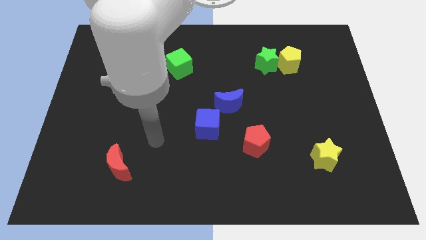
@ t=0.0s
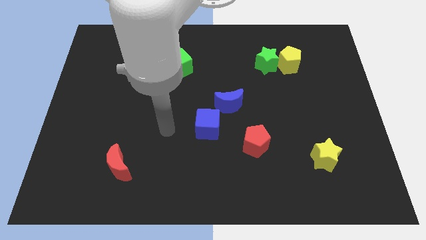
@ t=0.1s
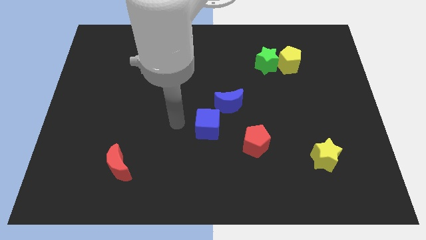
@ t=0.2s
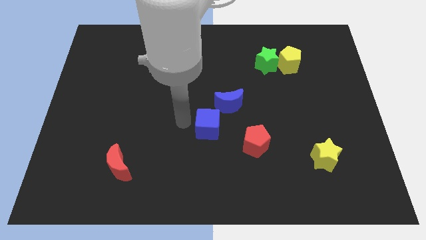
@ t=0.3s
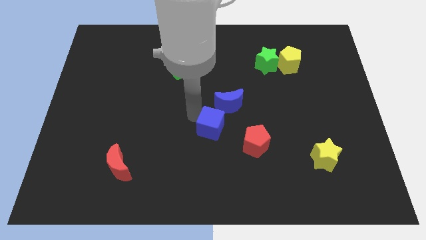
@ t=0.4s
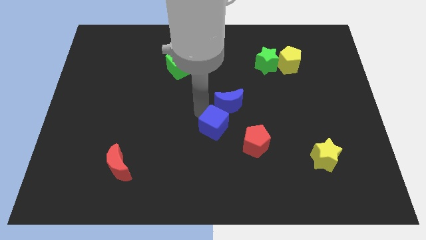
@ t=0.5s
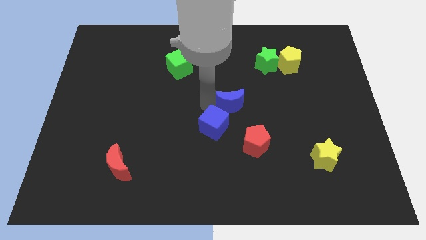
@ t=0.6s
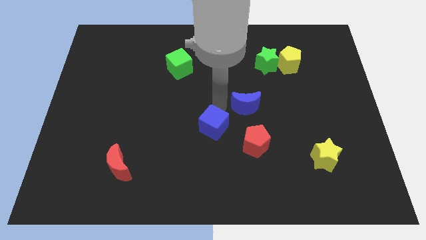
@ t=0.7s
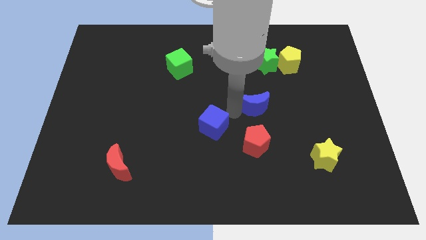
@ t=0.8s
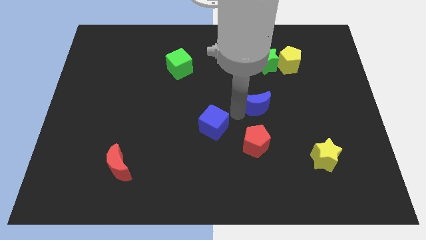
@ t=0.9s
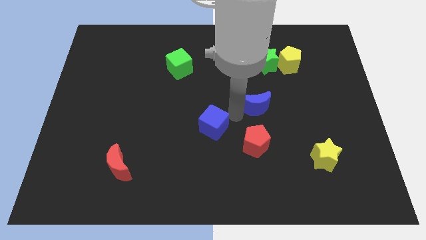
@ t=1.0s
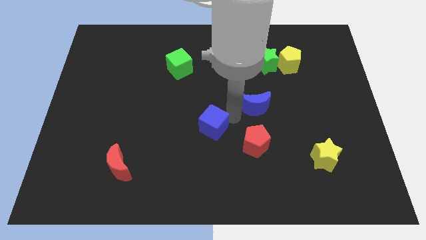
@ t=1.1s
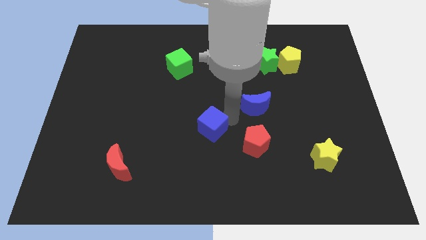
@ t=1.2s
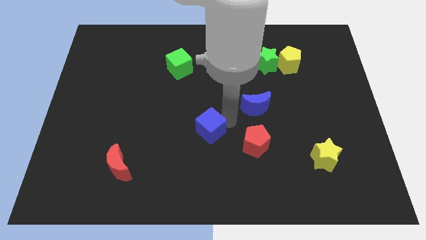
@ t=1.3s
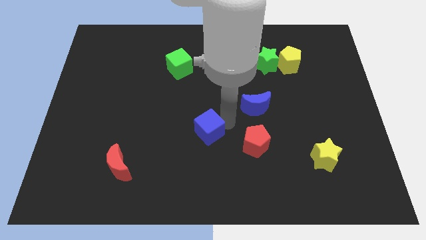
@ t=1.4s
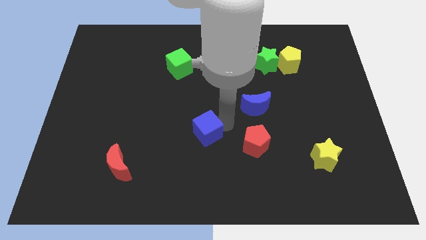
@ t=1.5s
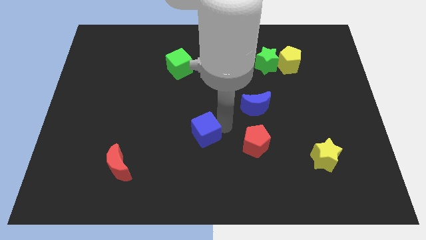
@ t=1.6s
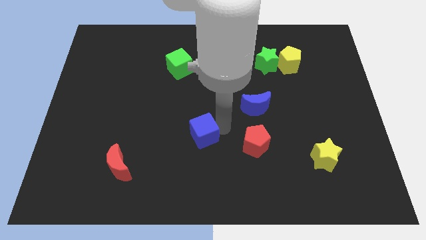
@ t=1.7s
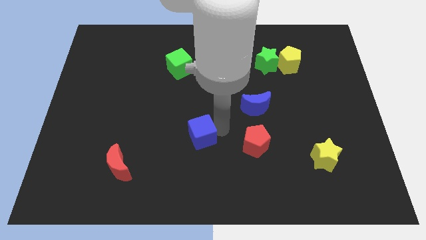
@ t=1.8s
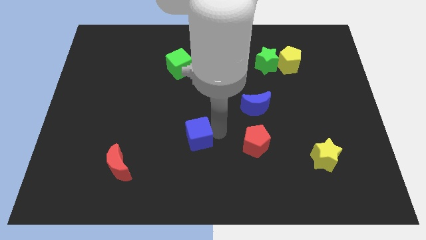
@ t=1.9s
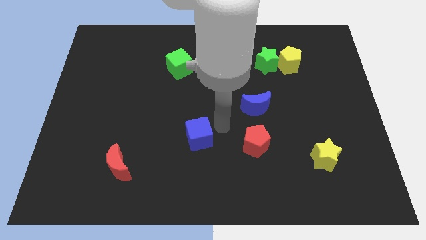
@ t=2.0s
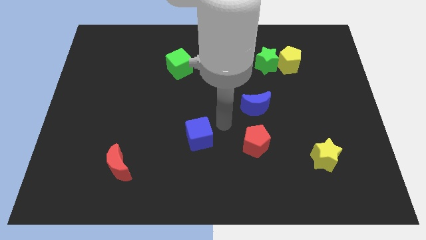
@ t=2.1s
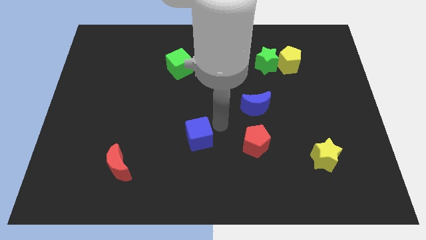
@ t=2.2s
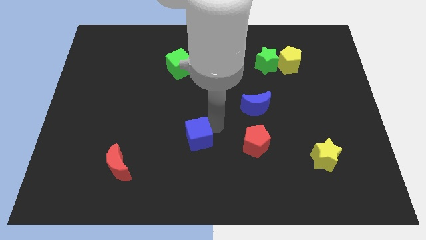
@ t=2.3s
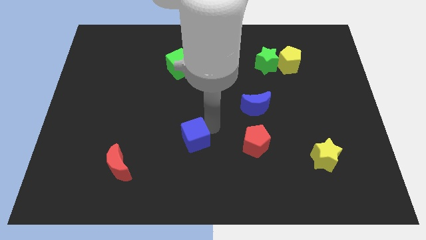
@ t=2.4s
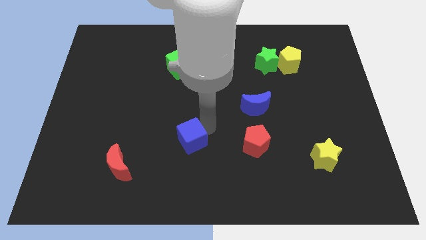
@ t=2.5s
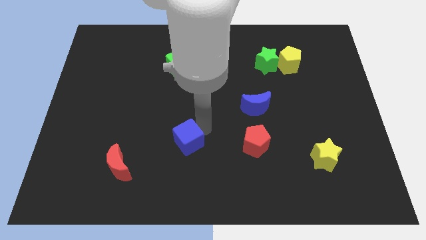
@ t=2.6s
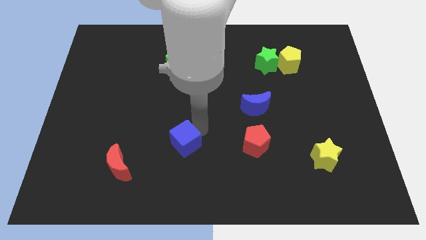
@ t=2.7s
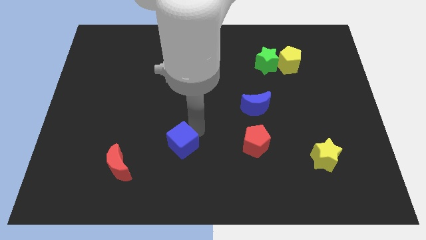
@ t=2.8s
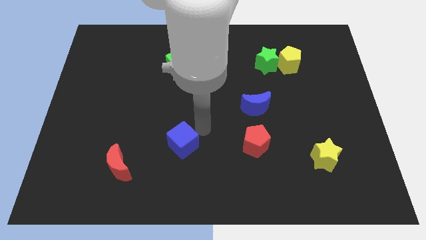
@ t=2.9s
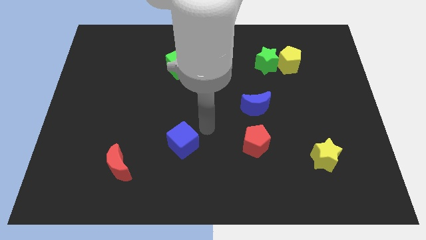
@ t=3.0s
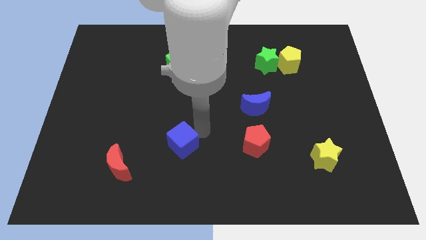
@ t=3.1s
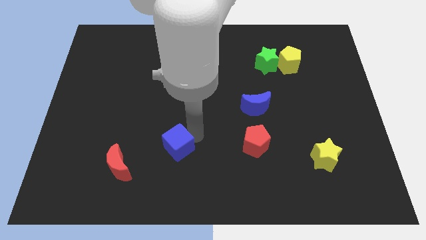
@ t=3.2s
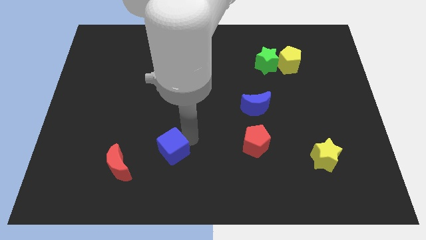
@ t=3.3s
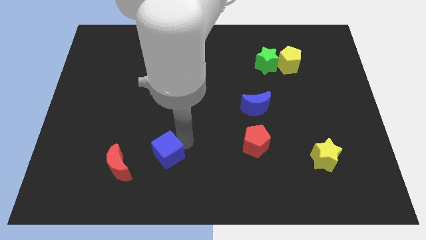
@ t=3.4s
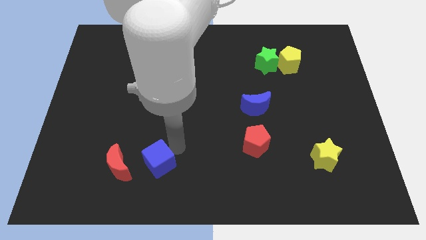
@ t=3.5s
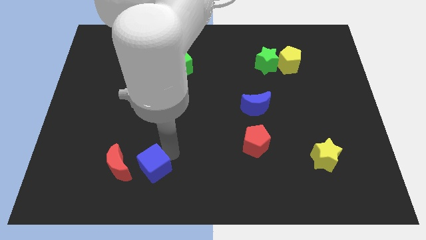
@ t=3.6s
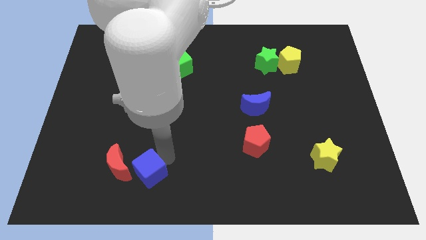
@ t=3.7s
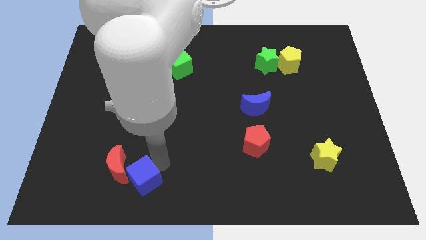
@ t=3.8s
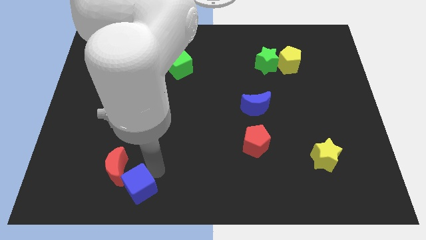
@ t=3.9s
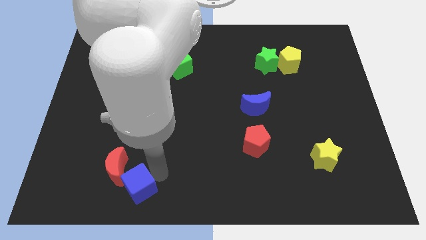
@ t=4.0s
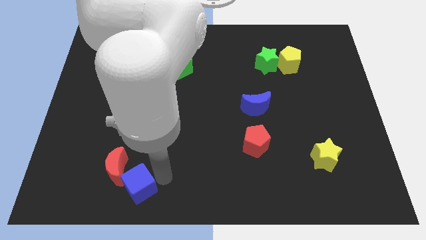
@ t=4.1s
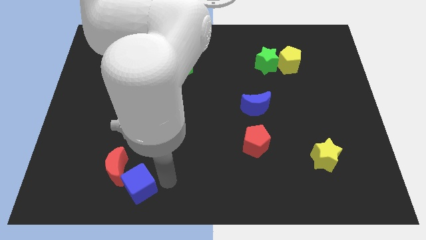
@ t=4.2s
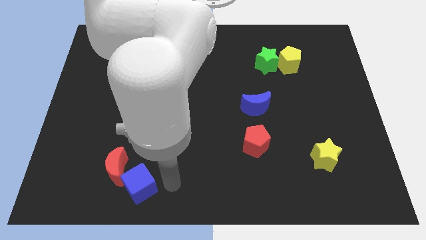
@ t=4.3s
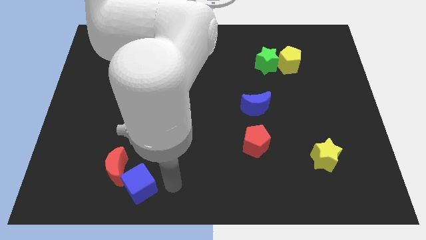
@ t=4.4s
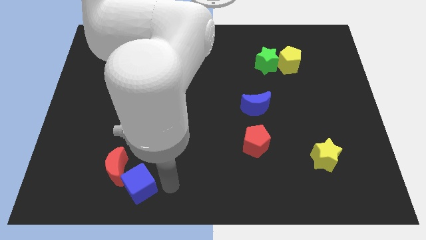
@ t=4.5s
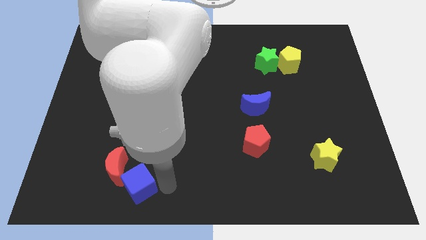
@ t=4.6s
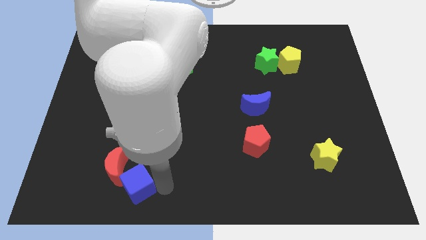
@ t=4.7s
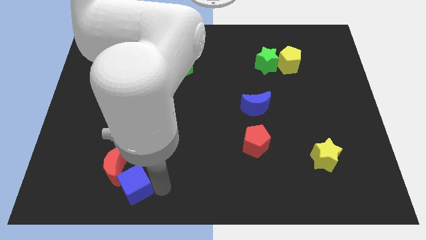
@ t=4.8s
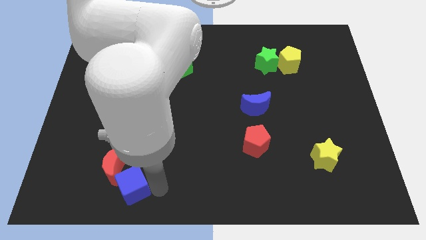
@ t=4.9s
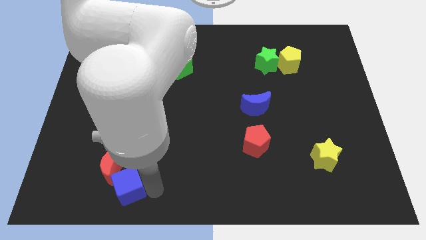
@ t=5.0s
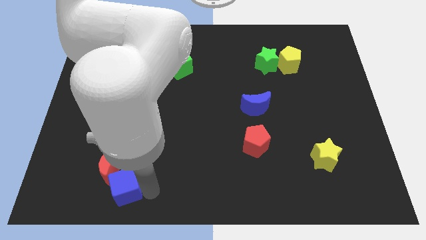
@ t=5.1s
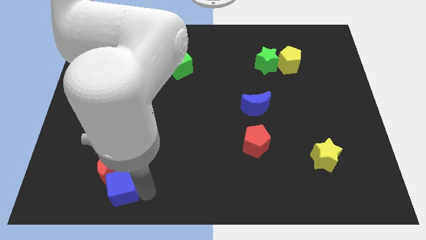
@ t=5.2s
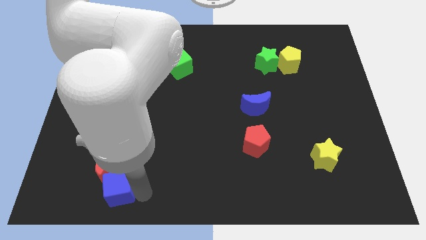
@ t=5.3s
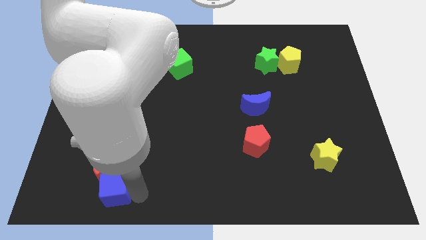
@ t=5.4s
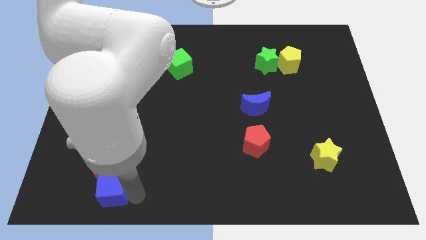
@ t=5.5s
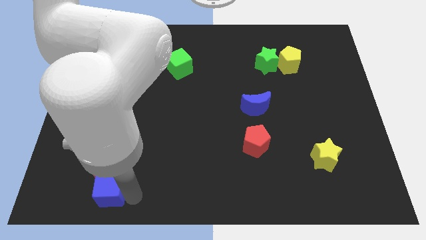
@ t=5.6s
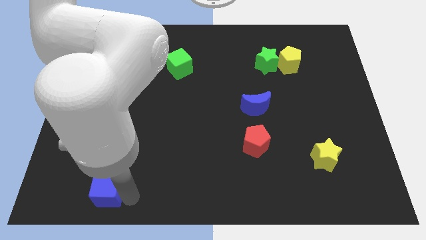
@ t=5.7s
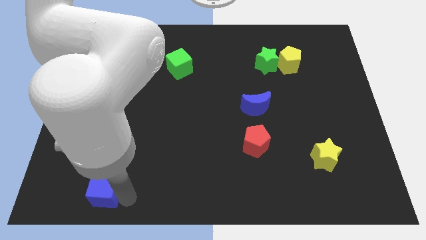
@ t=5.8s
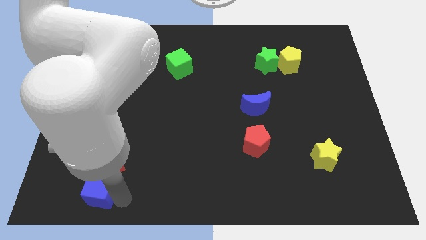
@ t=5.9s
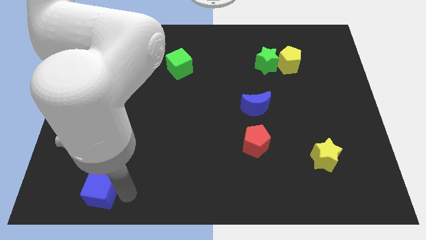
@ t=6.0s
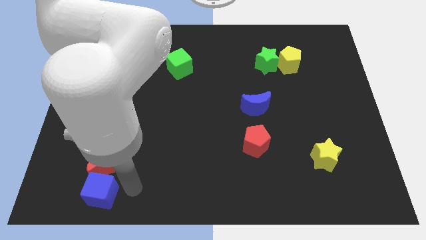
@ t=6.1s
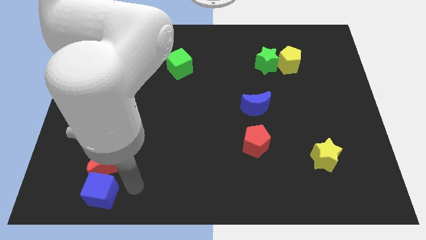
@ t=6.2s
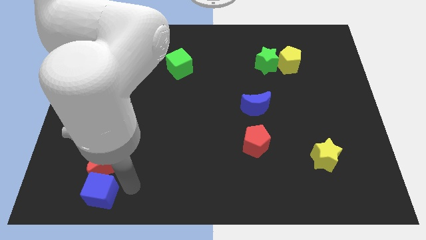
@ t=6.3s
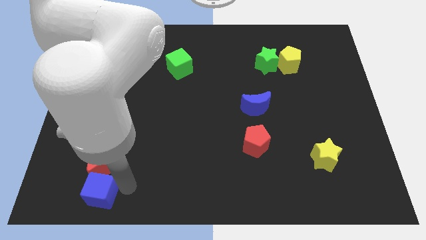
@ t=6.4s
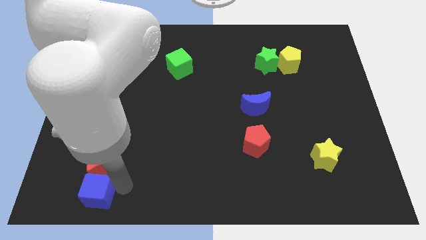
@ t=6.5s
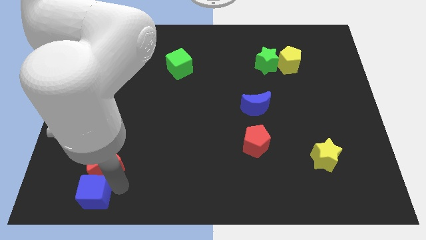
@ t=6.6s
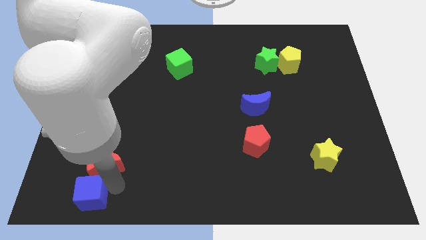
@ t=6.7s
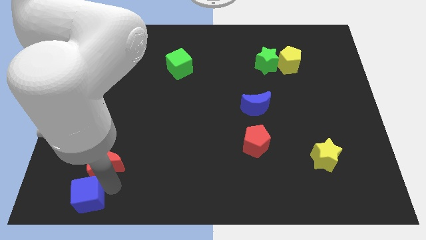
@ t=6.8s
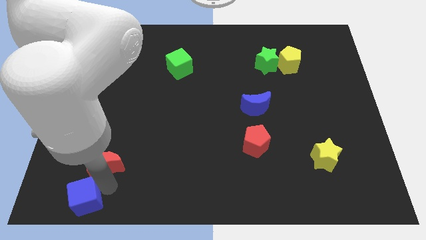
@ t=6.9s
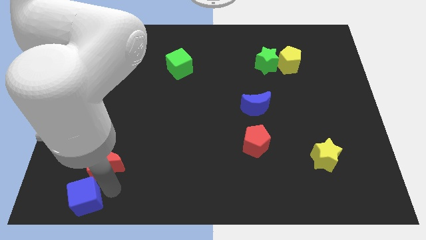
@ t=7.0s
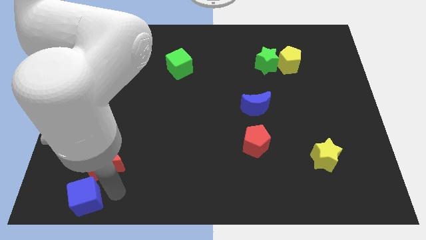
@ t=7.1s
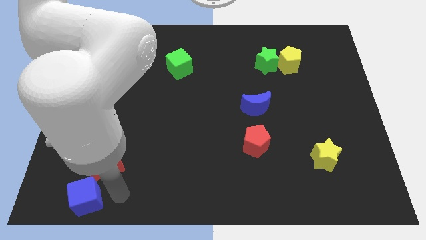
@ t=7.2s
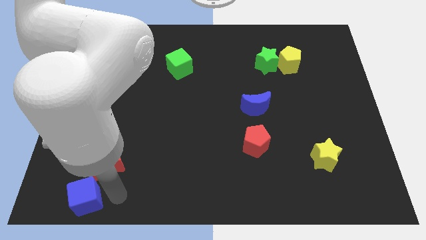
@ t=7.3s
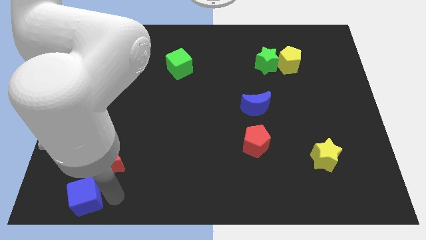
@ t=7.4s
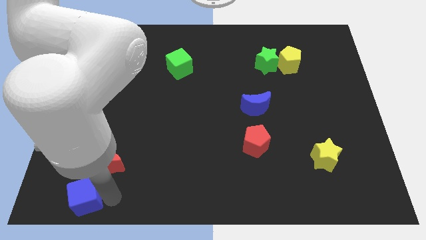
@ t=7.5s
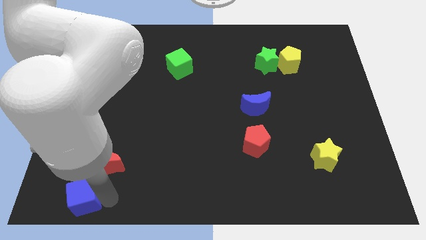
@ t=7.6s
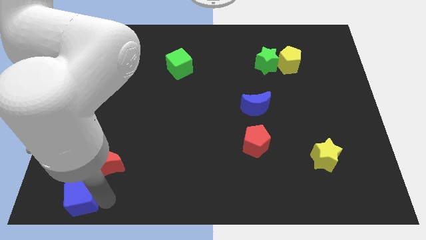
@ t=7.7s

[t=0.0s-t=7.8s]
push the blue cube to the bottom left of the board

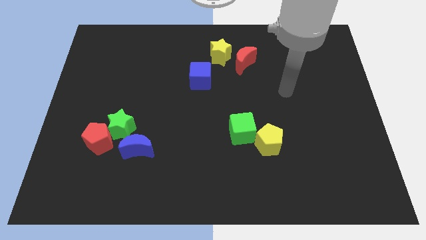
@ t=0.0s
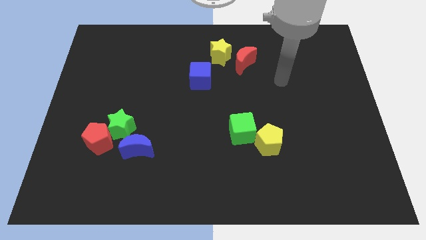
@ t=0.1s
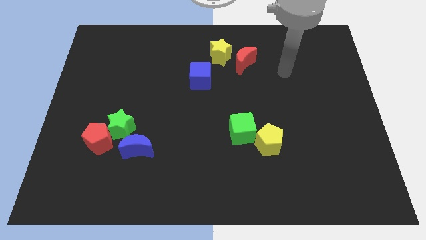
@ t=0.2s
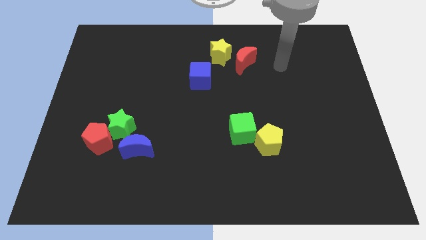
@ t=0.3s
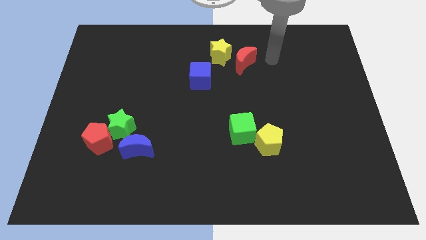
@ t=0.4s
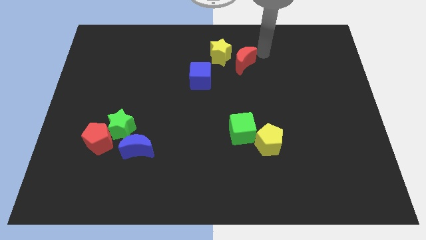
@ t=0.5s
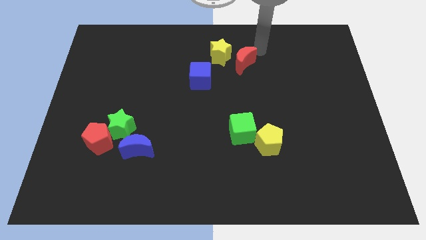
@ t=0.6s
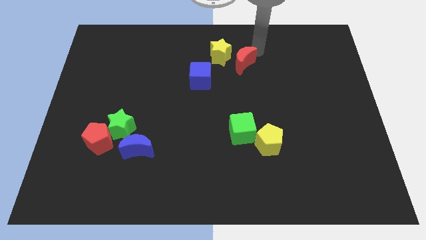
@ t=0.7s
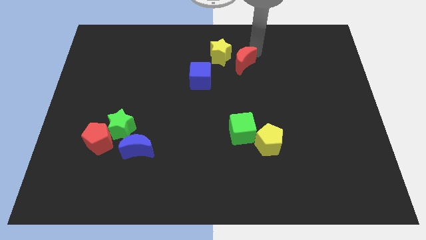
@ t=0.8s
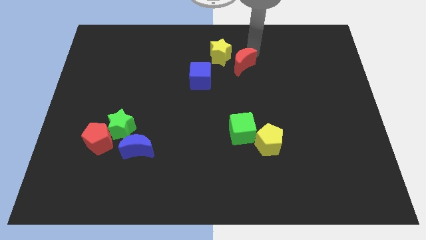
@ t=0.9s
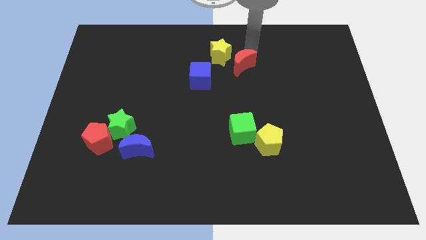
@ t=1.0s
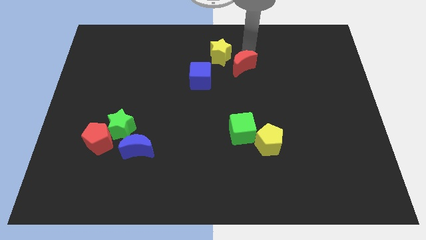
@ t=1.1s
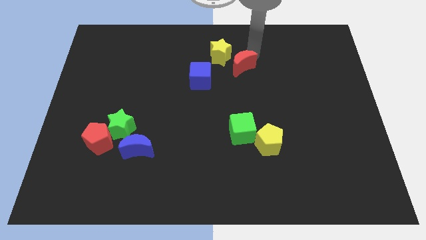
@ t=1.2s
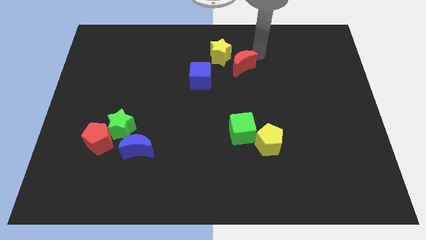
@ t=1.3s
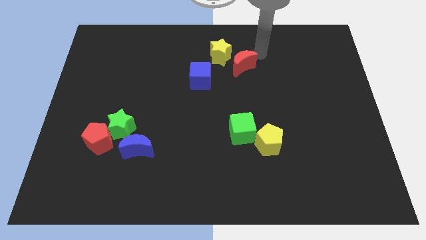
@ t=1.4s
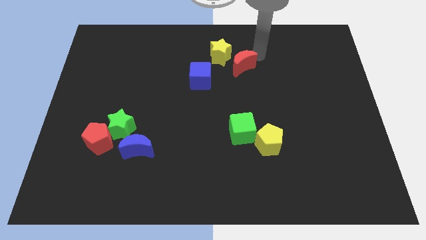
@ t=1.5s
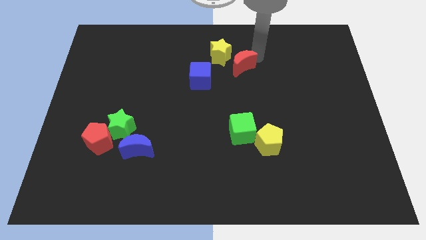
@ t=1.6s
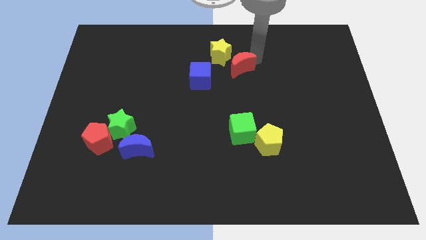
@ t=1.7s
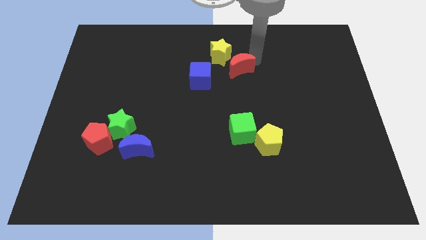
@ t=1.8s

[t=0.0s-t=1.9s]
move the red moon to the middle
